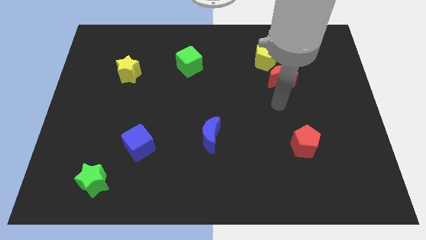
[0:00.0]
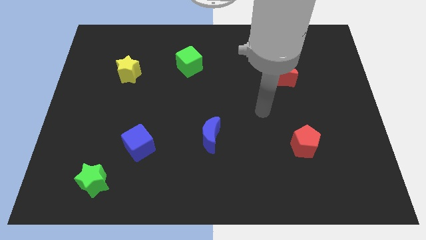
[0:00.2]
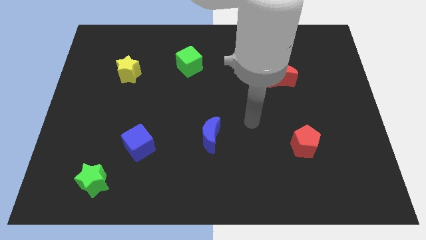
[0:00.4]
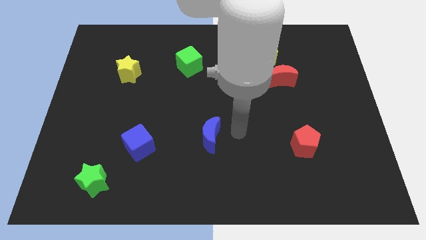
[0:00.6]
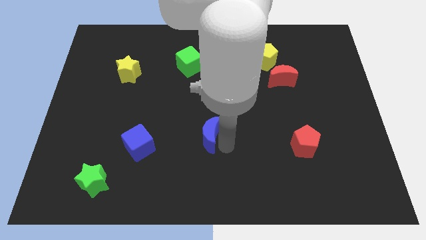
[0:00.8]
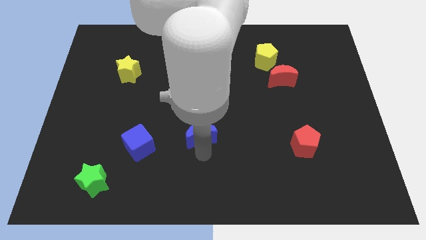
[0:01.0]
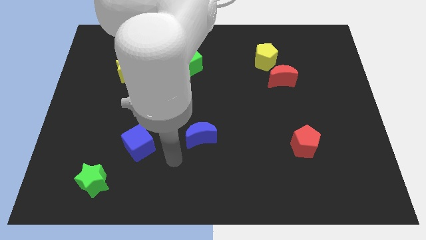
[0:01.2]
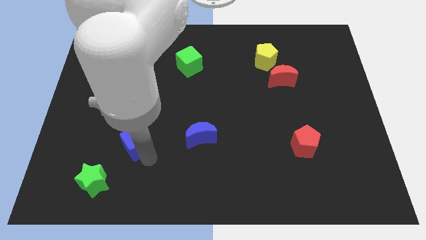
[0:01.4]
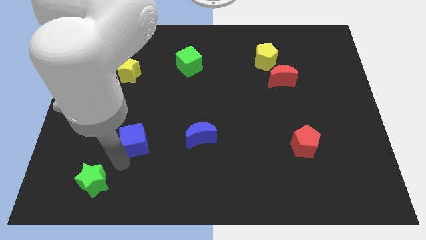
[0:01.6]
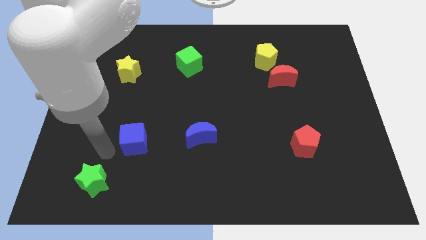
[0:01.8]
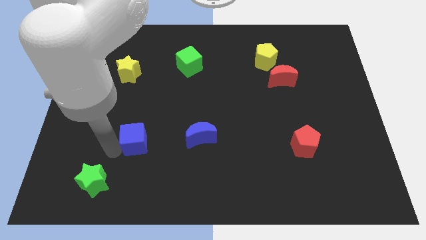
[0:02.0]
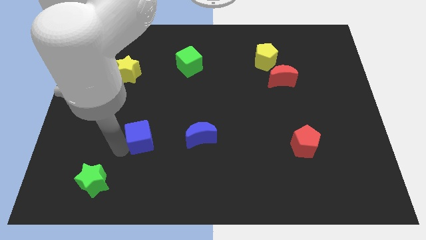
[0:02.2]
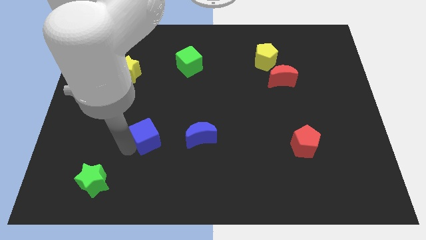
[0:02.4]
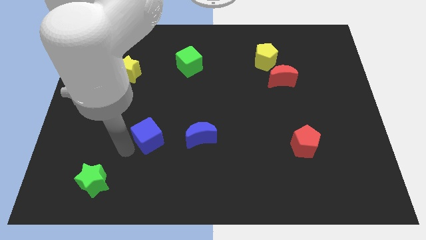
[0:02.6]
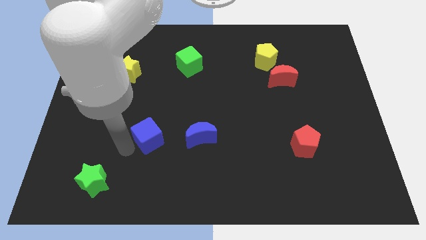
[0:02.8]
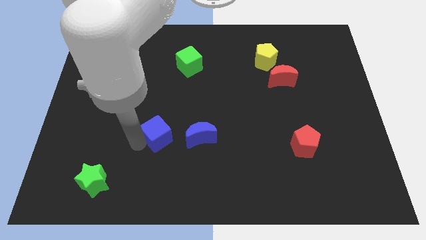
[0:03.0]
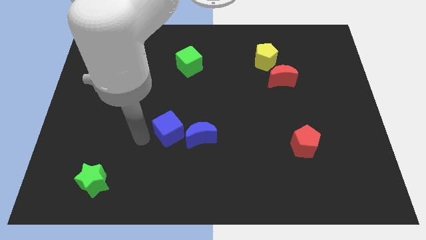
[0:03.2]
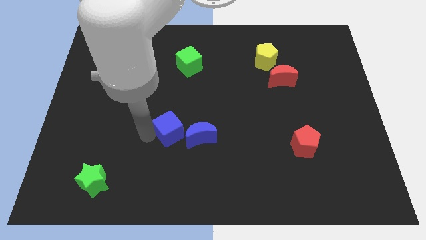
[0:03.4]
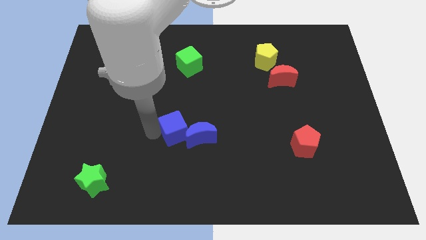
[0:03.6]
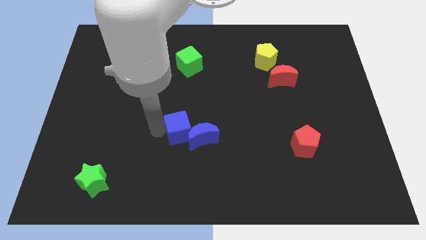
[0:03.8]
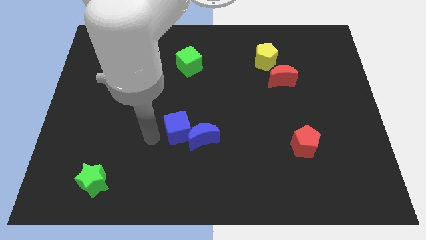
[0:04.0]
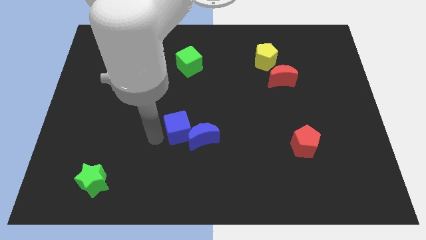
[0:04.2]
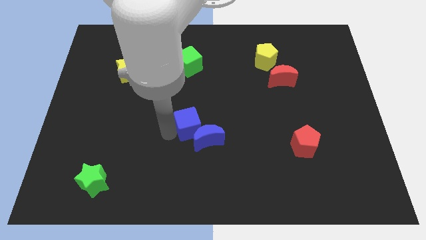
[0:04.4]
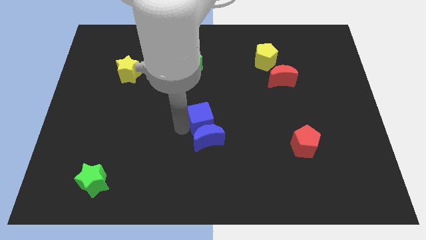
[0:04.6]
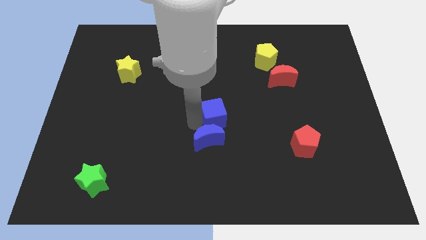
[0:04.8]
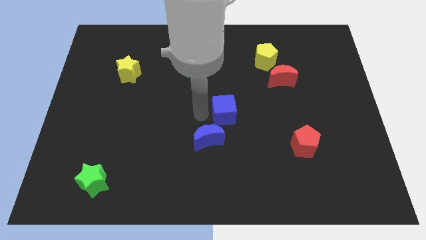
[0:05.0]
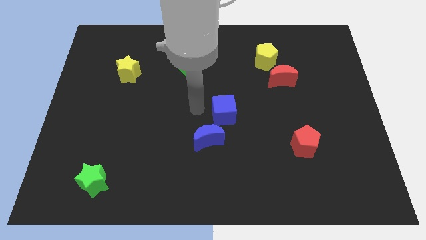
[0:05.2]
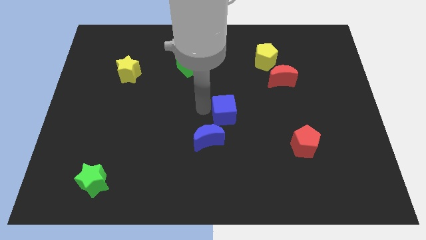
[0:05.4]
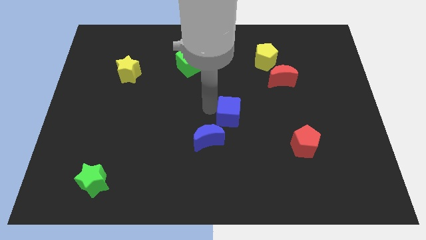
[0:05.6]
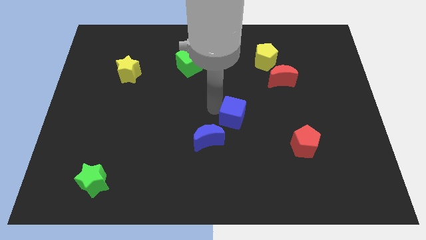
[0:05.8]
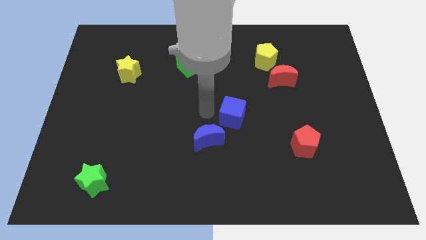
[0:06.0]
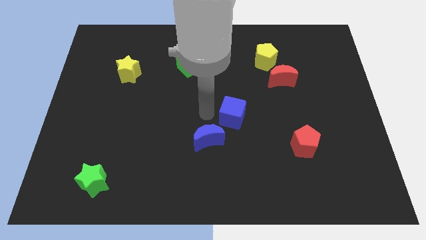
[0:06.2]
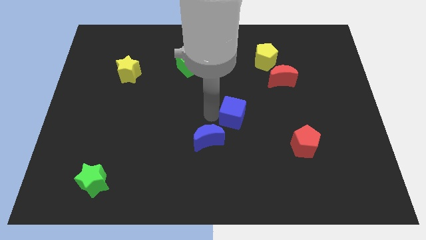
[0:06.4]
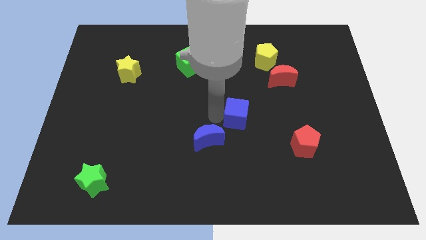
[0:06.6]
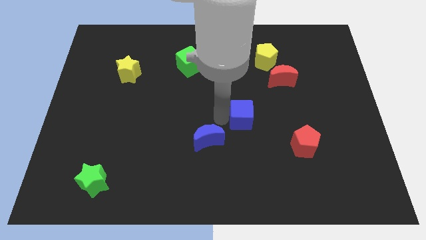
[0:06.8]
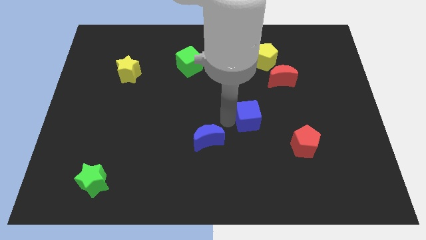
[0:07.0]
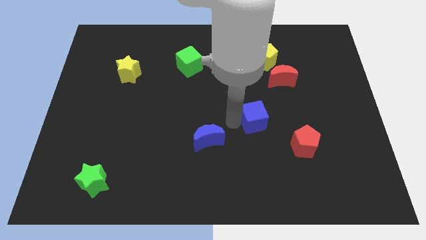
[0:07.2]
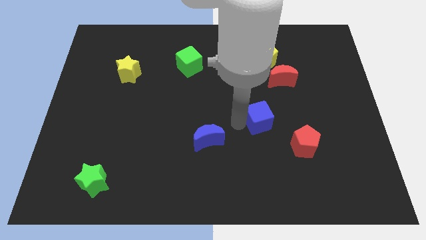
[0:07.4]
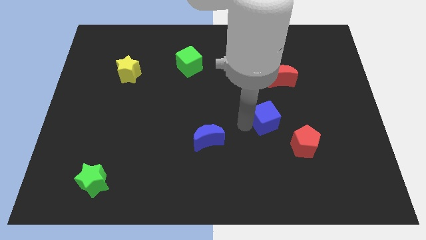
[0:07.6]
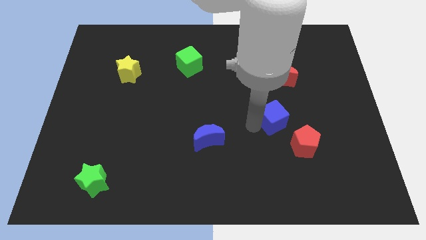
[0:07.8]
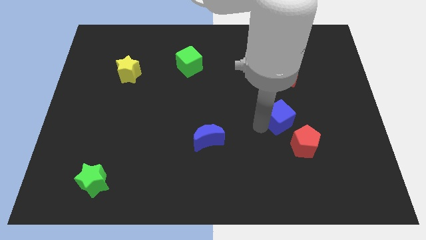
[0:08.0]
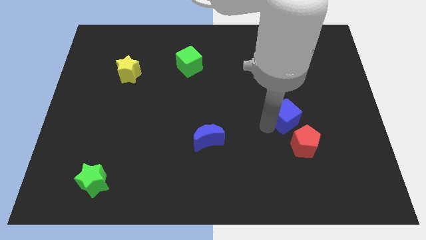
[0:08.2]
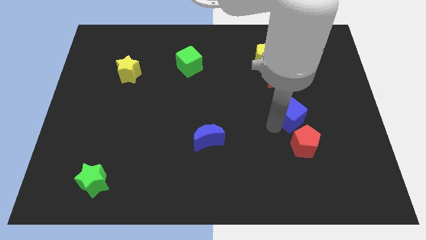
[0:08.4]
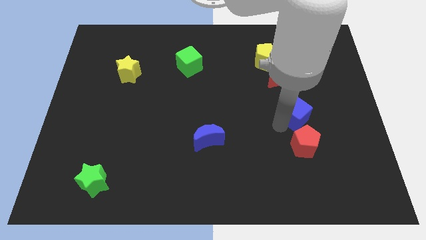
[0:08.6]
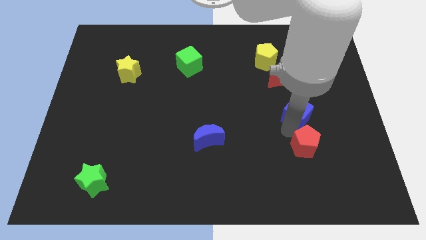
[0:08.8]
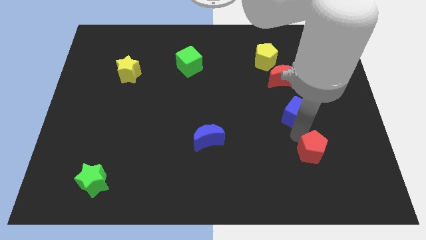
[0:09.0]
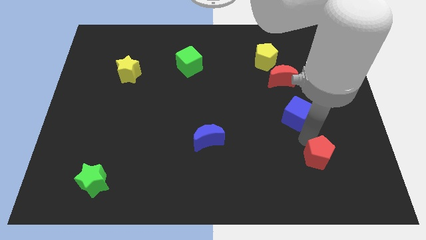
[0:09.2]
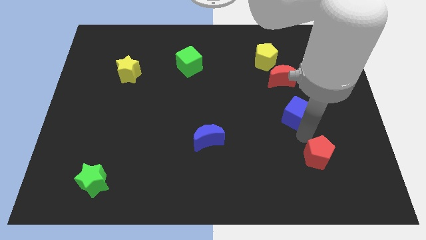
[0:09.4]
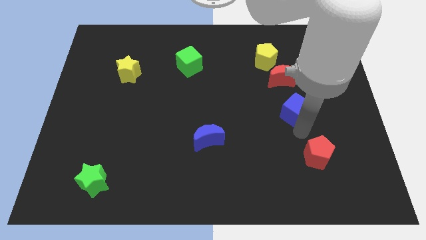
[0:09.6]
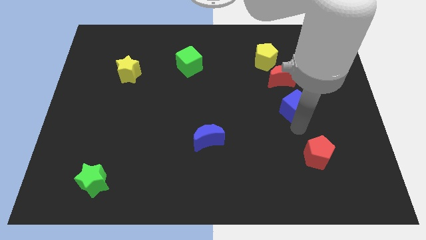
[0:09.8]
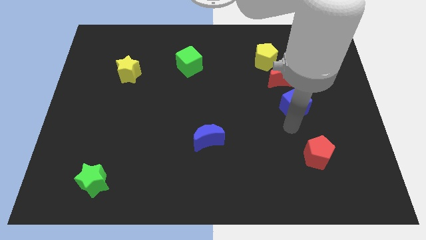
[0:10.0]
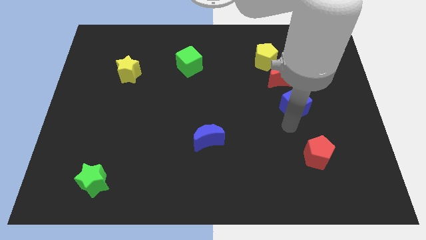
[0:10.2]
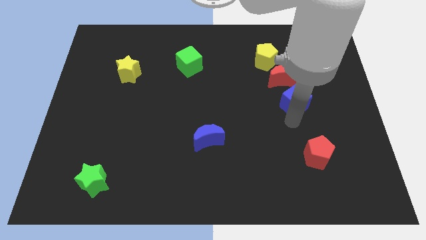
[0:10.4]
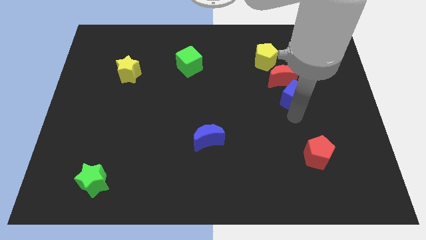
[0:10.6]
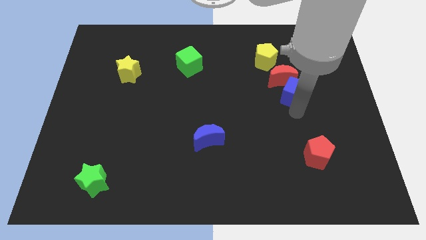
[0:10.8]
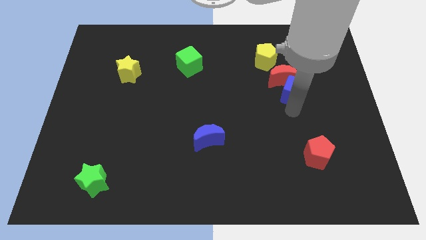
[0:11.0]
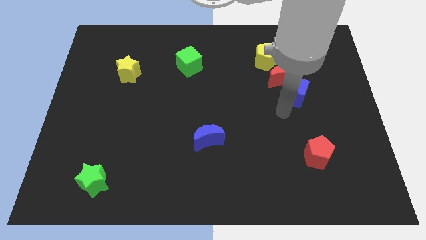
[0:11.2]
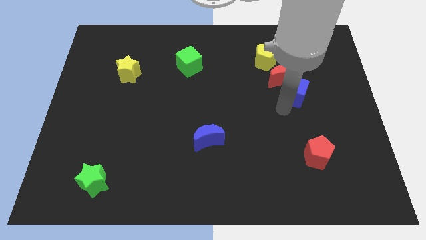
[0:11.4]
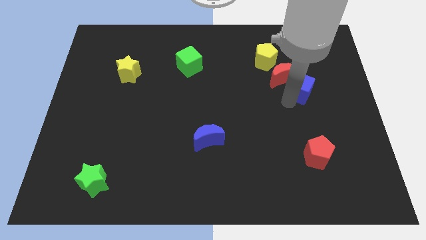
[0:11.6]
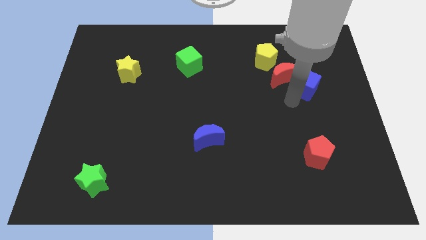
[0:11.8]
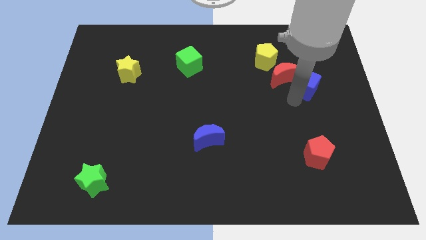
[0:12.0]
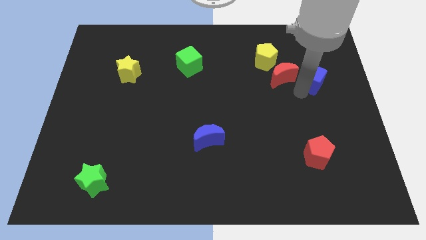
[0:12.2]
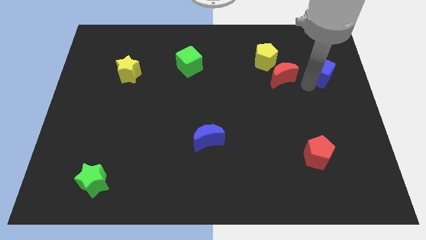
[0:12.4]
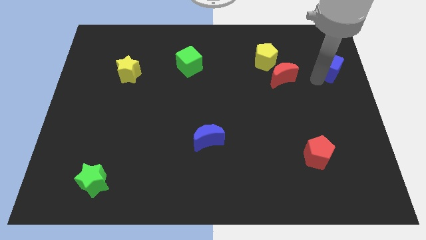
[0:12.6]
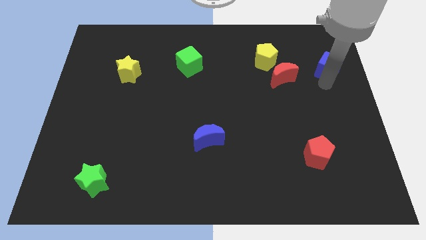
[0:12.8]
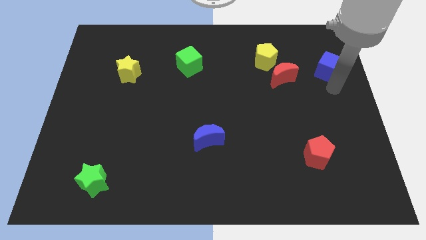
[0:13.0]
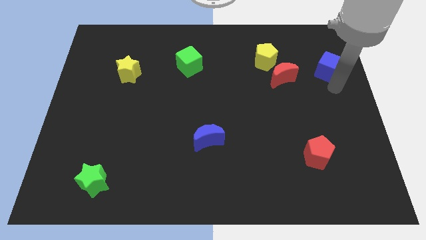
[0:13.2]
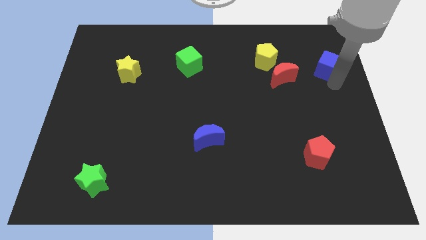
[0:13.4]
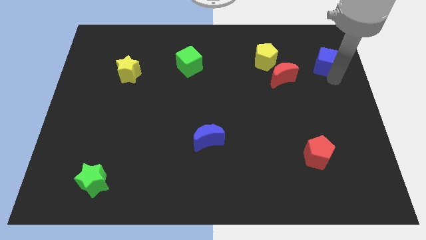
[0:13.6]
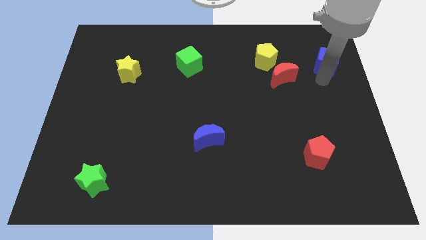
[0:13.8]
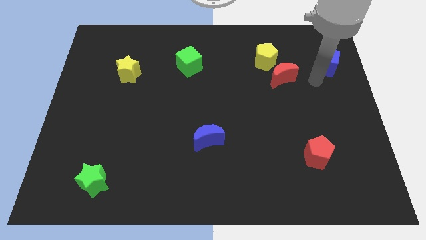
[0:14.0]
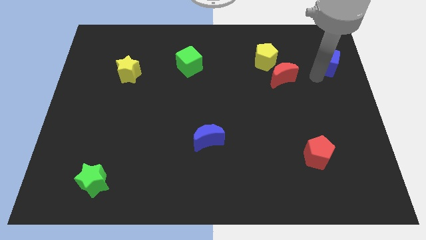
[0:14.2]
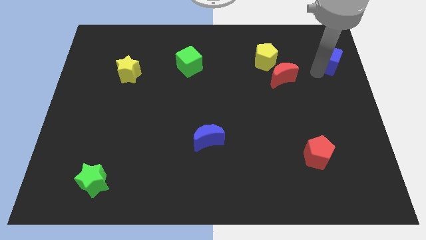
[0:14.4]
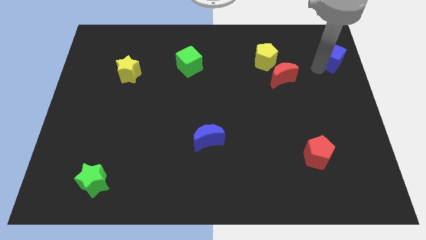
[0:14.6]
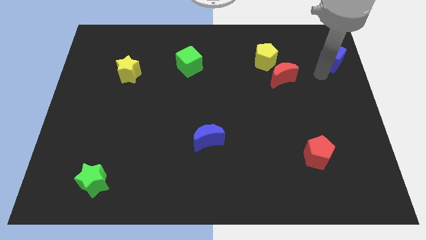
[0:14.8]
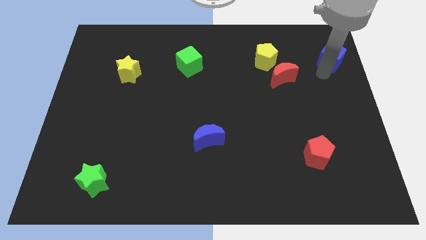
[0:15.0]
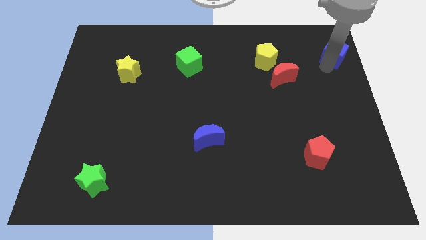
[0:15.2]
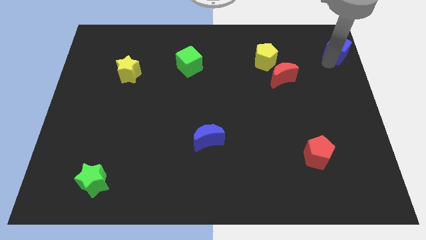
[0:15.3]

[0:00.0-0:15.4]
slide the blue cube to the top right of the board
